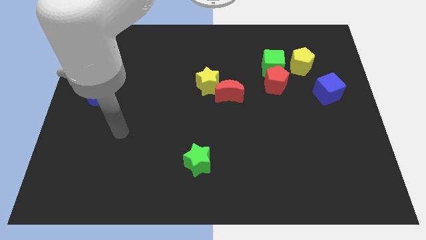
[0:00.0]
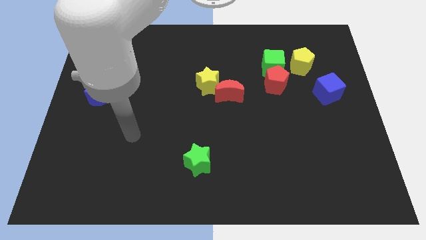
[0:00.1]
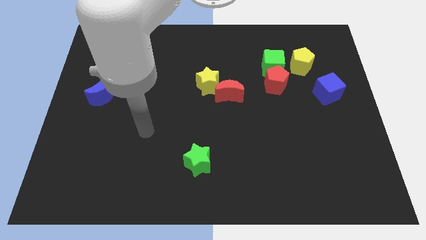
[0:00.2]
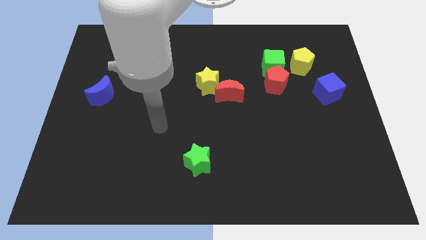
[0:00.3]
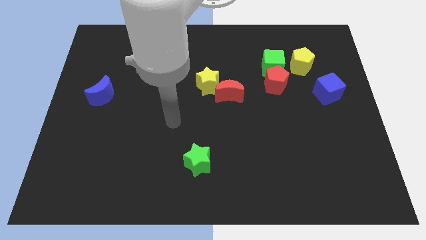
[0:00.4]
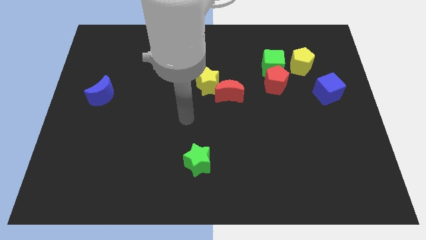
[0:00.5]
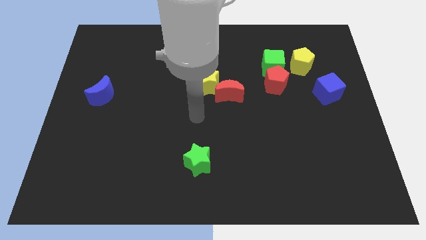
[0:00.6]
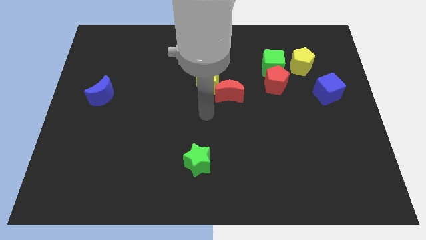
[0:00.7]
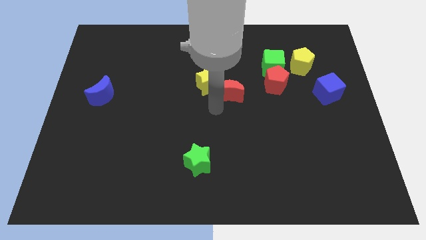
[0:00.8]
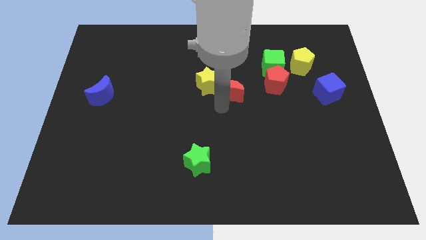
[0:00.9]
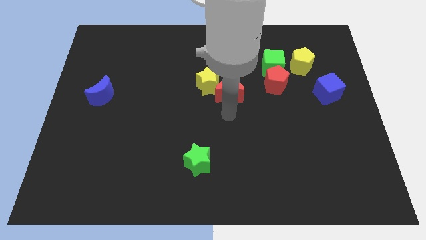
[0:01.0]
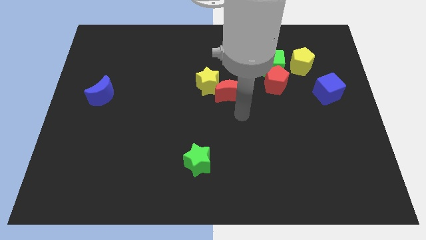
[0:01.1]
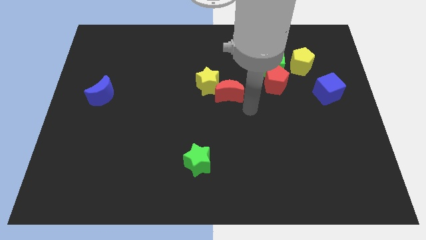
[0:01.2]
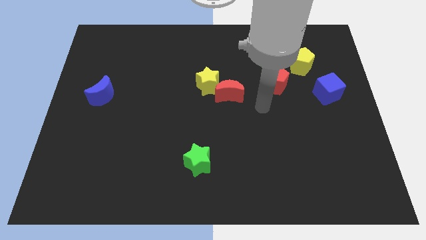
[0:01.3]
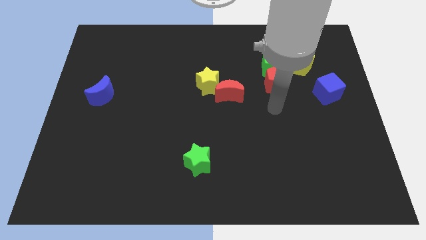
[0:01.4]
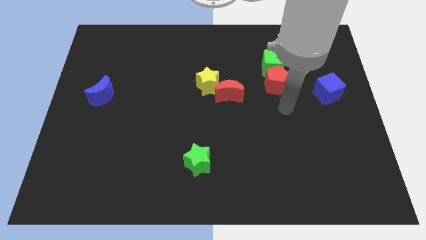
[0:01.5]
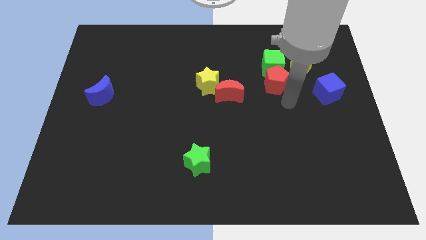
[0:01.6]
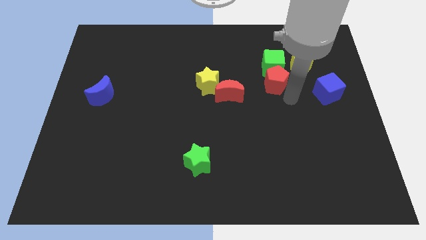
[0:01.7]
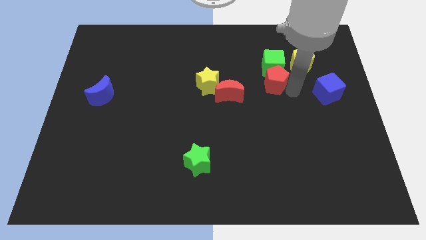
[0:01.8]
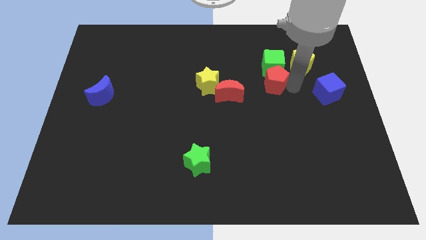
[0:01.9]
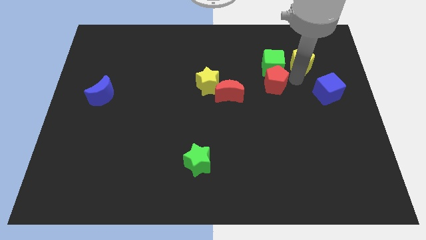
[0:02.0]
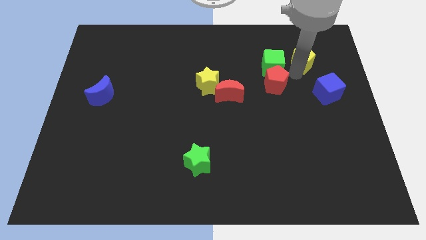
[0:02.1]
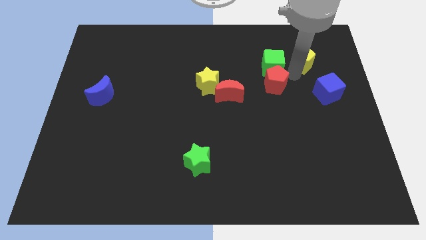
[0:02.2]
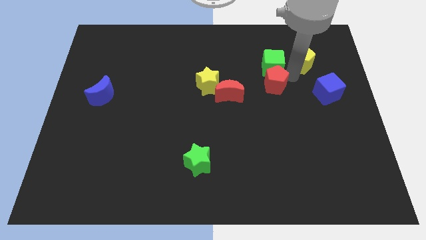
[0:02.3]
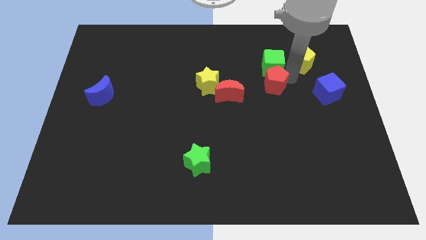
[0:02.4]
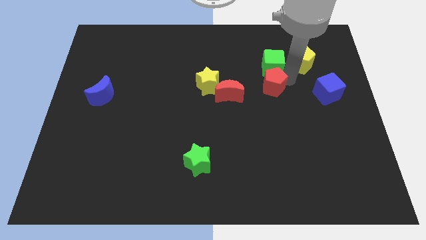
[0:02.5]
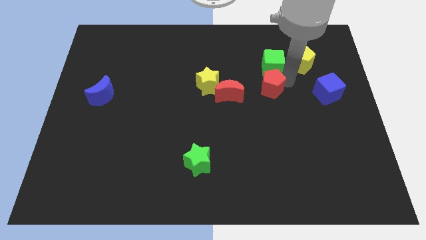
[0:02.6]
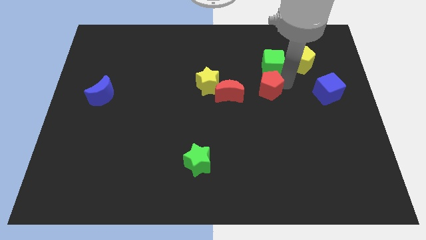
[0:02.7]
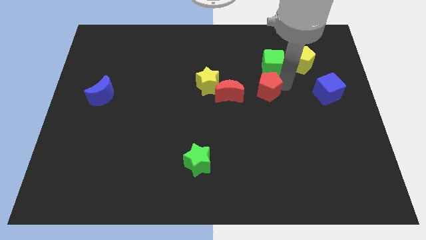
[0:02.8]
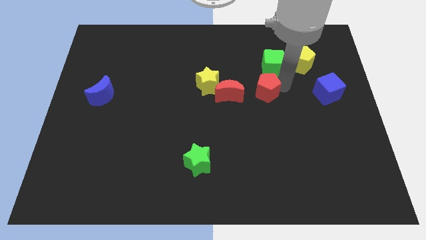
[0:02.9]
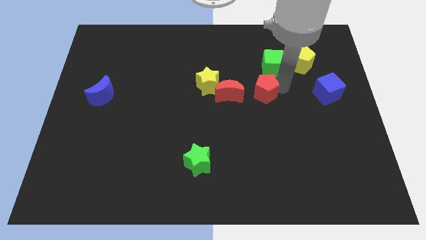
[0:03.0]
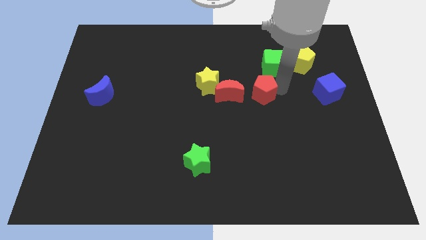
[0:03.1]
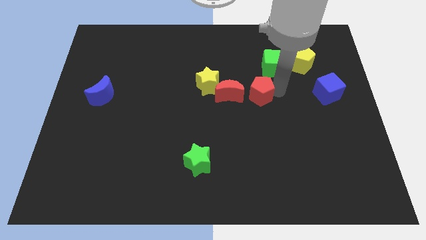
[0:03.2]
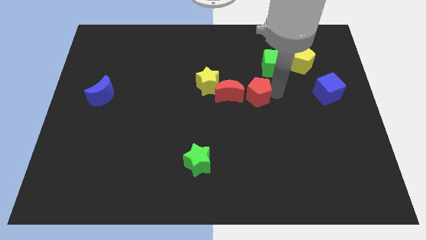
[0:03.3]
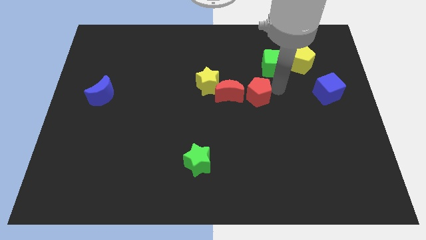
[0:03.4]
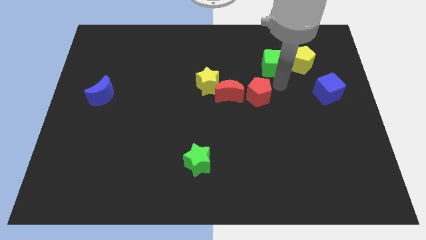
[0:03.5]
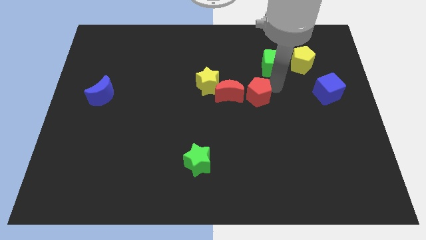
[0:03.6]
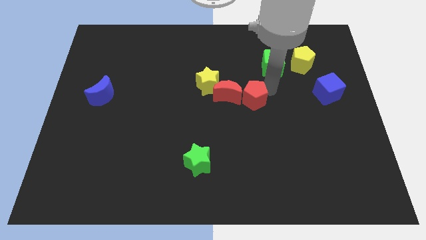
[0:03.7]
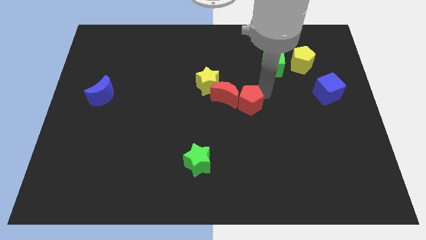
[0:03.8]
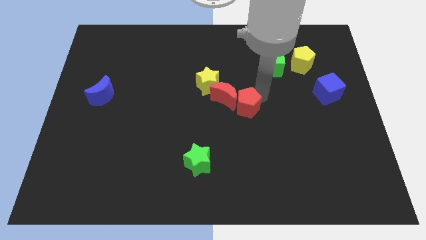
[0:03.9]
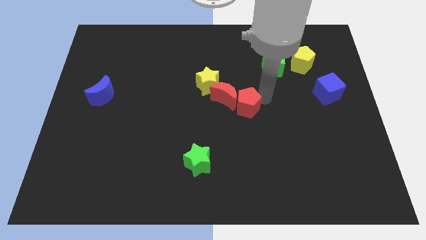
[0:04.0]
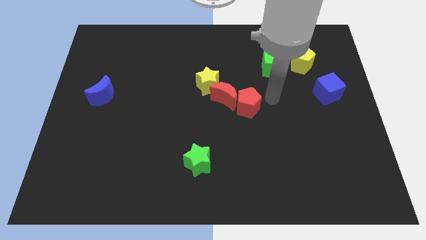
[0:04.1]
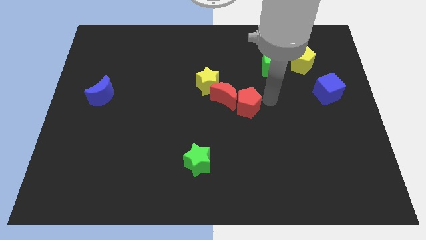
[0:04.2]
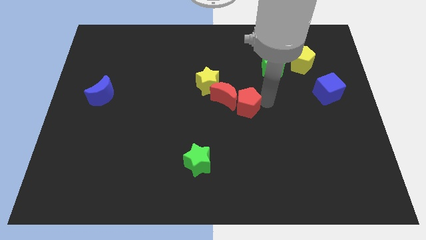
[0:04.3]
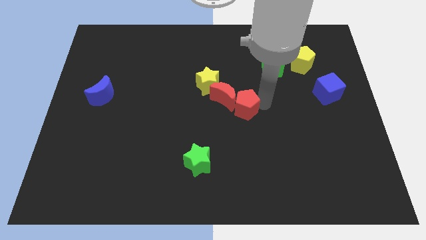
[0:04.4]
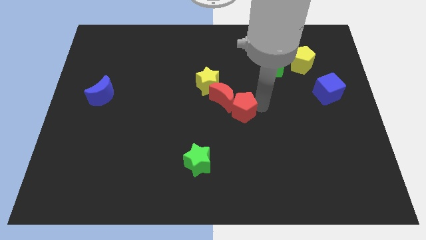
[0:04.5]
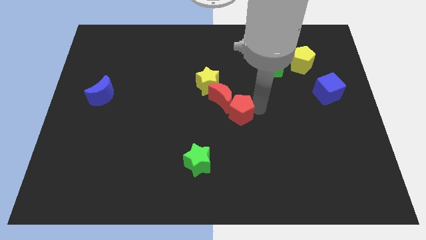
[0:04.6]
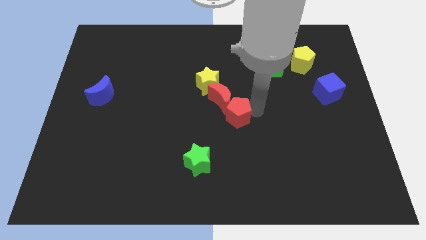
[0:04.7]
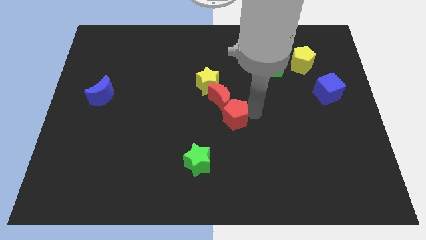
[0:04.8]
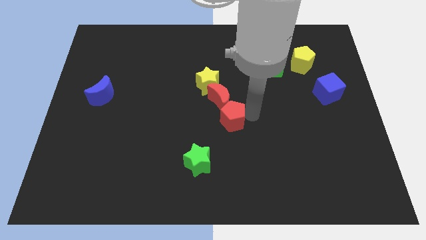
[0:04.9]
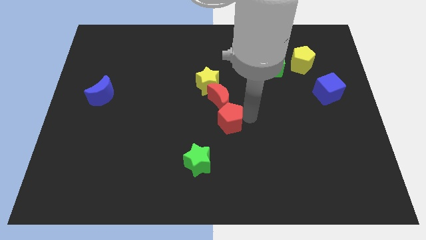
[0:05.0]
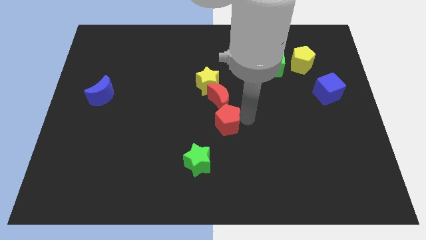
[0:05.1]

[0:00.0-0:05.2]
put the red pentagon to the bottom of the yellow star

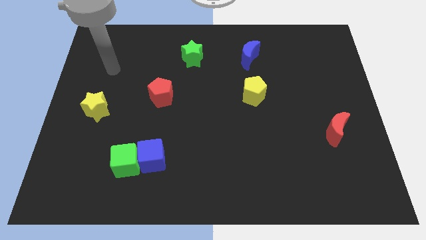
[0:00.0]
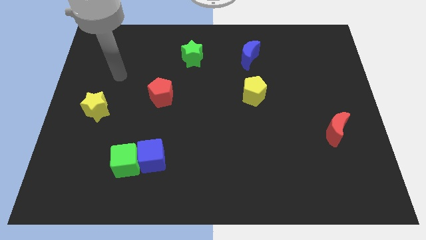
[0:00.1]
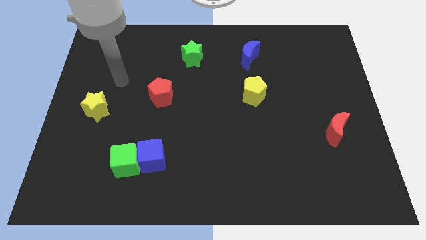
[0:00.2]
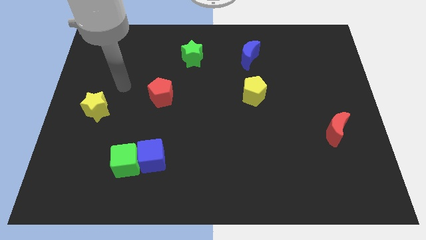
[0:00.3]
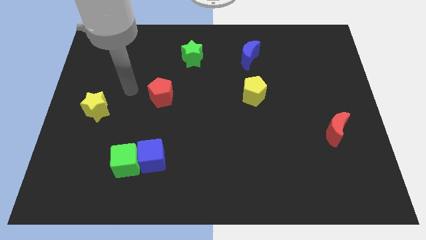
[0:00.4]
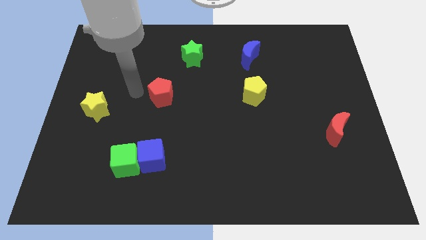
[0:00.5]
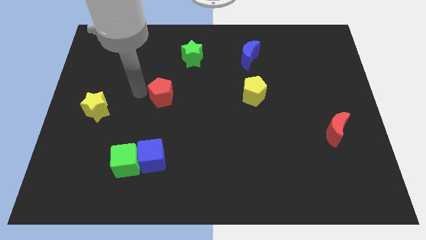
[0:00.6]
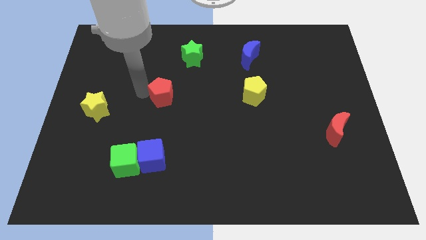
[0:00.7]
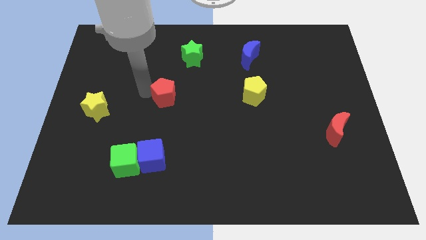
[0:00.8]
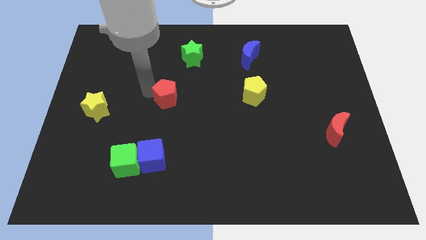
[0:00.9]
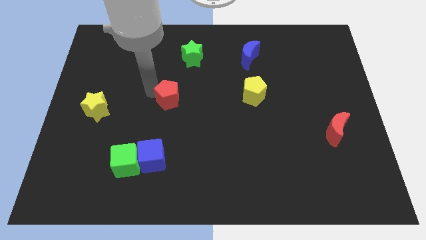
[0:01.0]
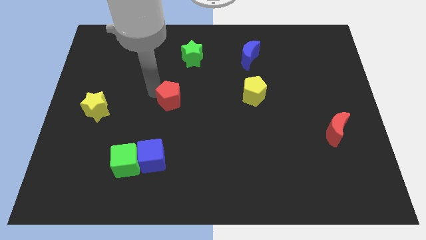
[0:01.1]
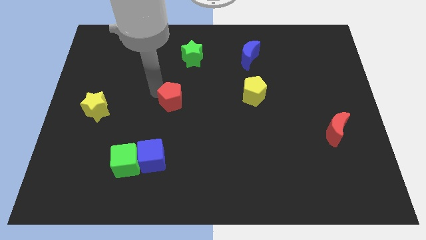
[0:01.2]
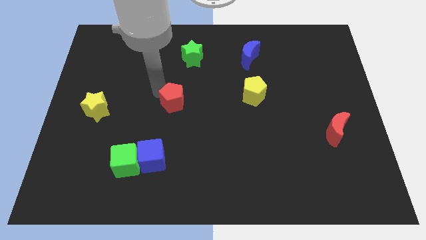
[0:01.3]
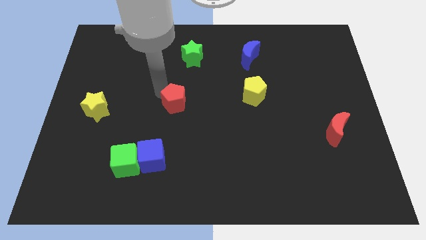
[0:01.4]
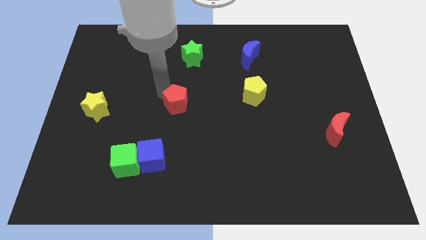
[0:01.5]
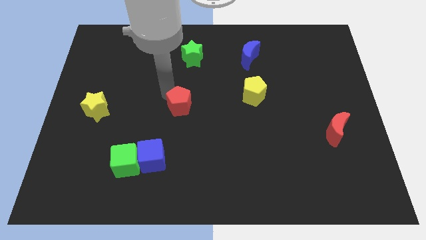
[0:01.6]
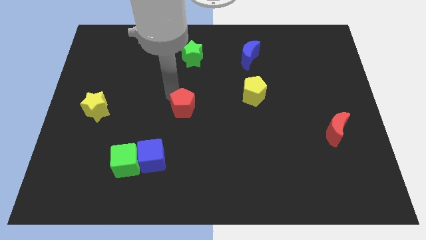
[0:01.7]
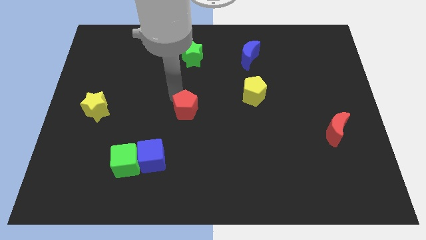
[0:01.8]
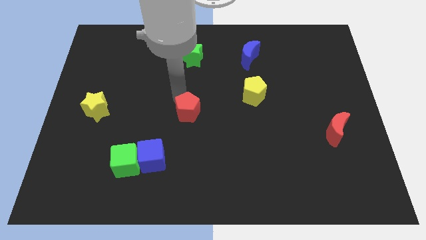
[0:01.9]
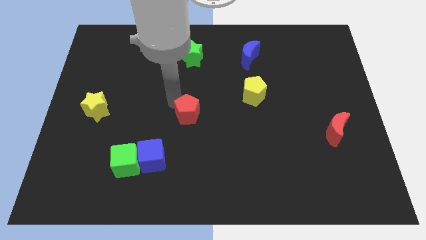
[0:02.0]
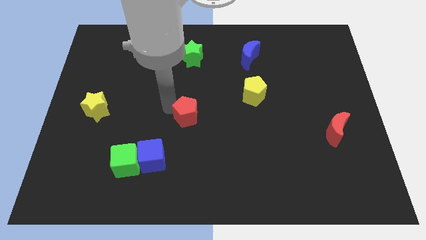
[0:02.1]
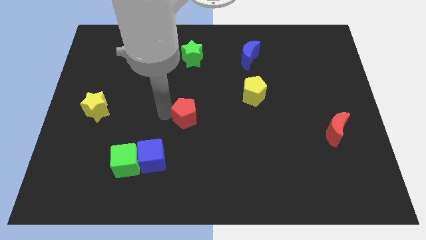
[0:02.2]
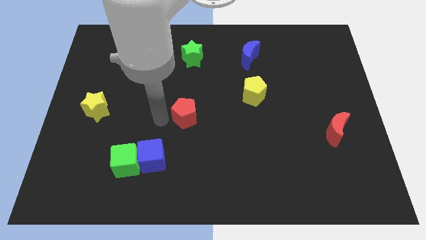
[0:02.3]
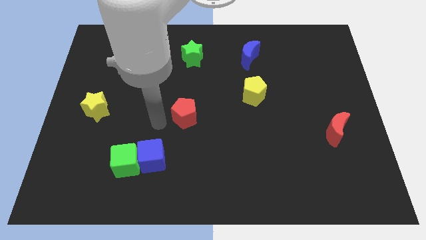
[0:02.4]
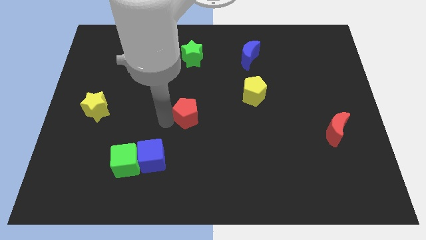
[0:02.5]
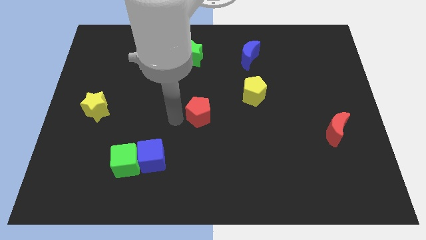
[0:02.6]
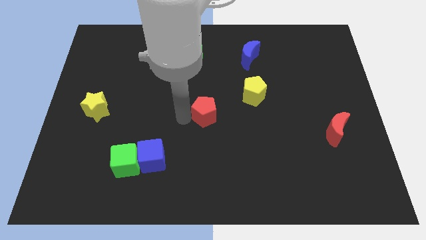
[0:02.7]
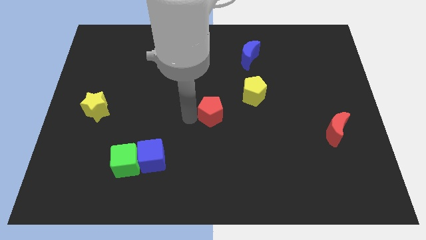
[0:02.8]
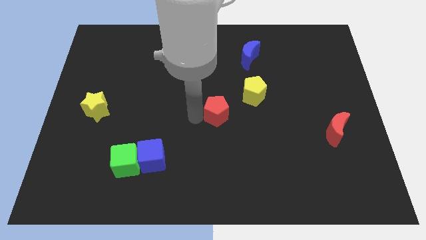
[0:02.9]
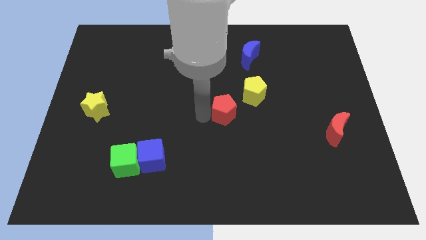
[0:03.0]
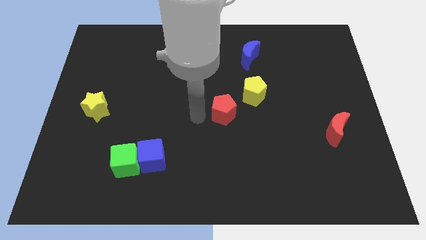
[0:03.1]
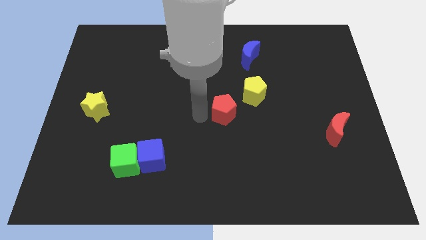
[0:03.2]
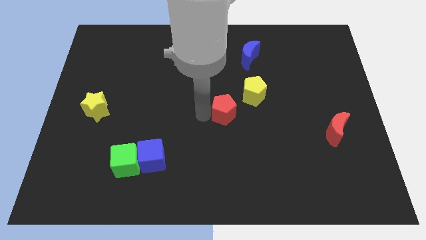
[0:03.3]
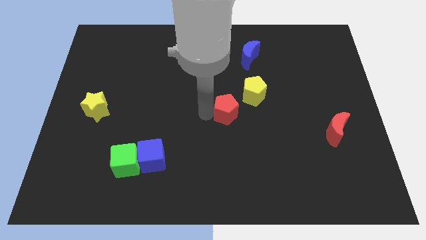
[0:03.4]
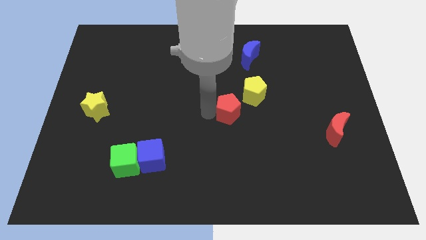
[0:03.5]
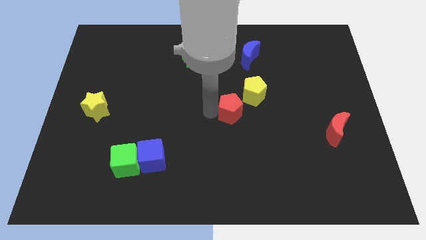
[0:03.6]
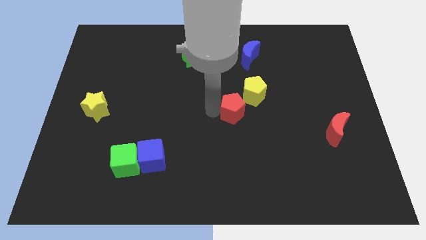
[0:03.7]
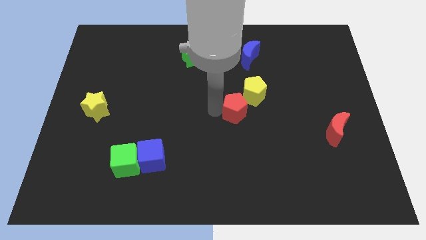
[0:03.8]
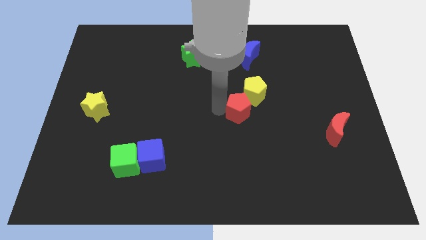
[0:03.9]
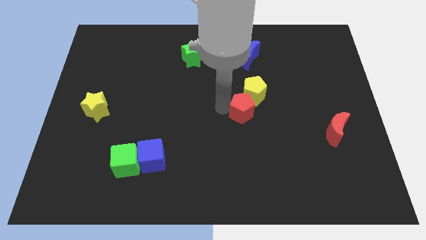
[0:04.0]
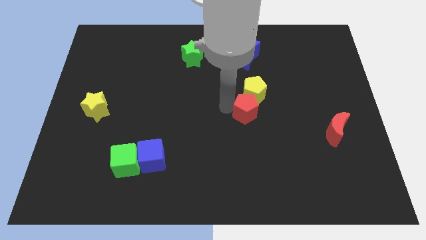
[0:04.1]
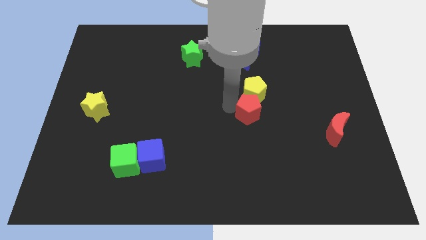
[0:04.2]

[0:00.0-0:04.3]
slide the red pentagon diagonally down and to the right of the yellow pentagon
